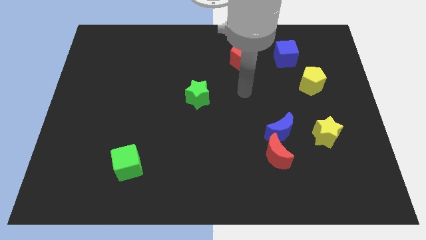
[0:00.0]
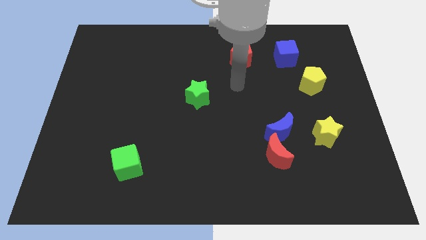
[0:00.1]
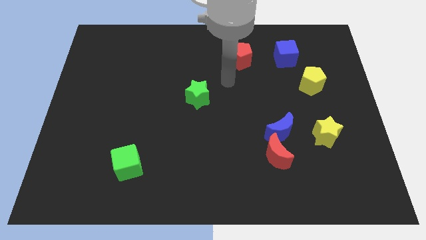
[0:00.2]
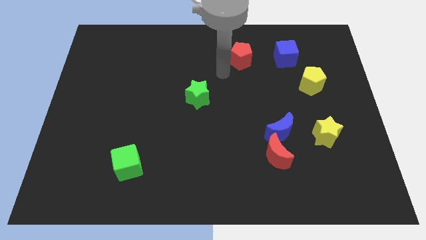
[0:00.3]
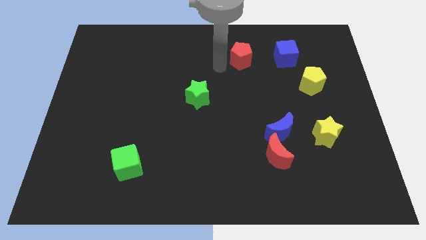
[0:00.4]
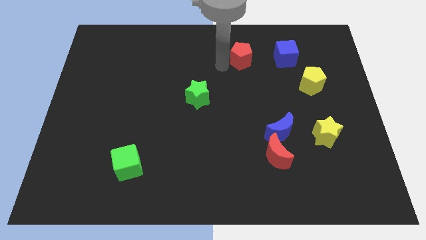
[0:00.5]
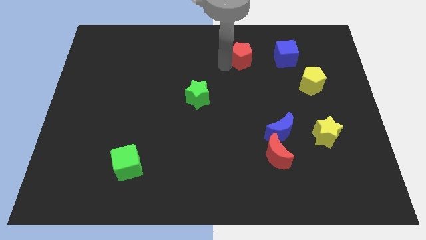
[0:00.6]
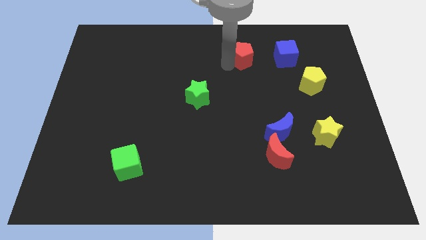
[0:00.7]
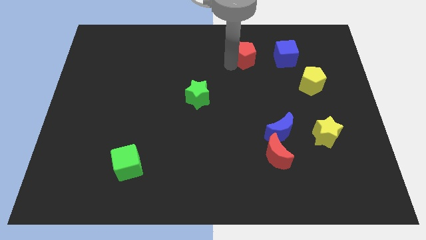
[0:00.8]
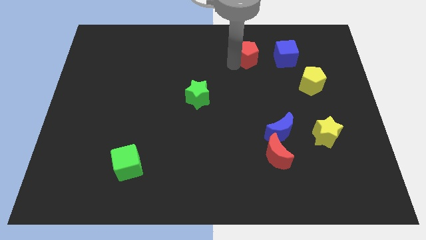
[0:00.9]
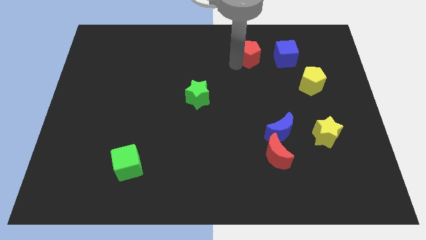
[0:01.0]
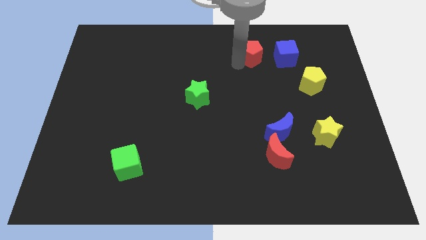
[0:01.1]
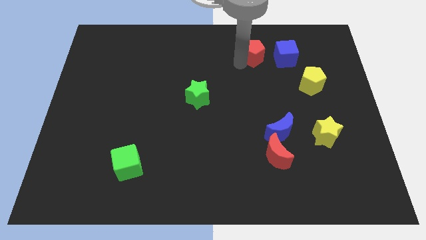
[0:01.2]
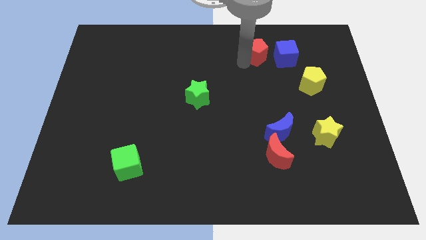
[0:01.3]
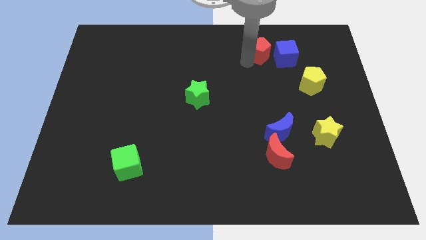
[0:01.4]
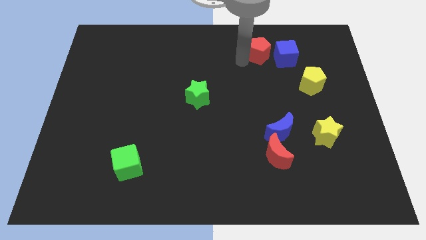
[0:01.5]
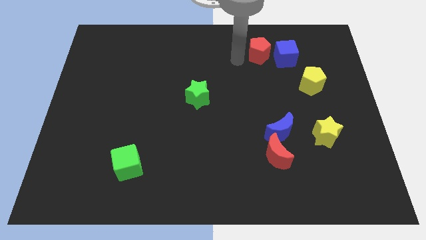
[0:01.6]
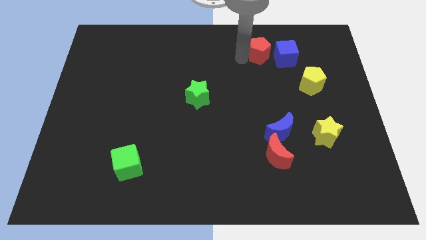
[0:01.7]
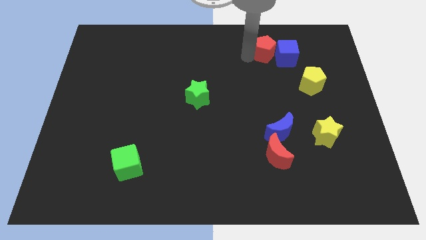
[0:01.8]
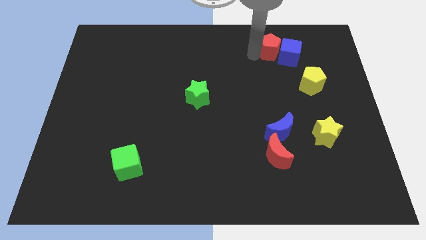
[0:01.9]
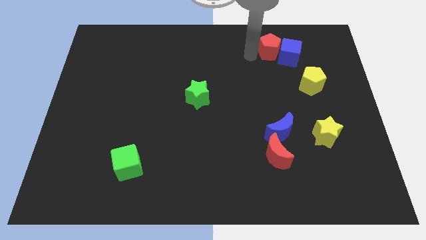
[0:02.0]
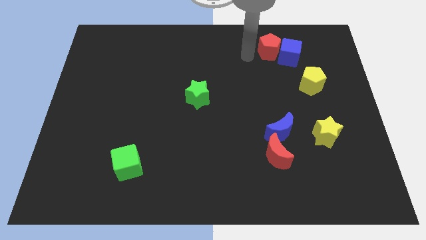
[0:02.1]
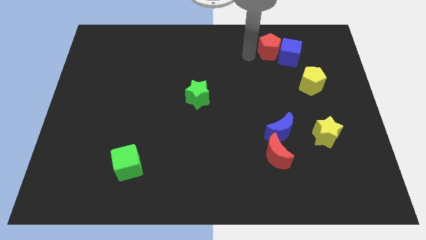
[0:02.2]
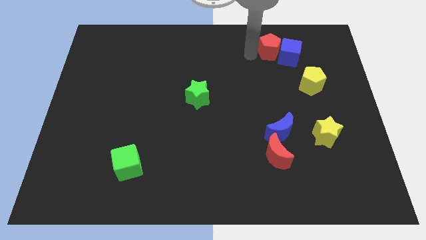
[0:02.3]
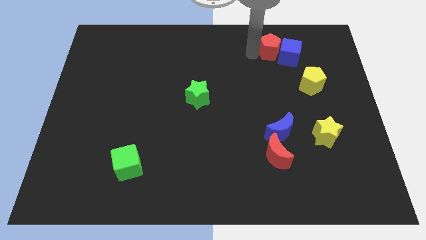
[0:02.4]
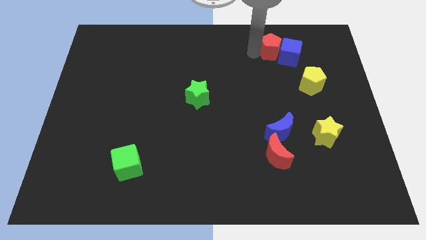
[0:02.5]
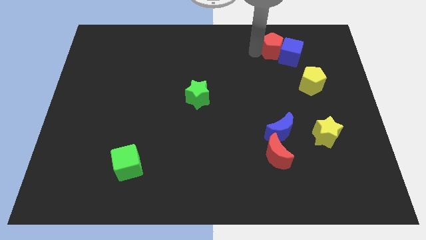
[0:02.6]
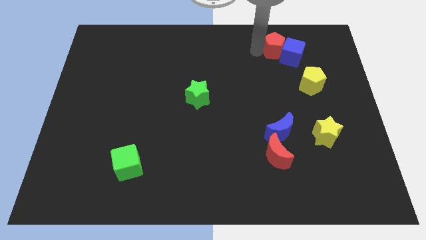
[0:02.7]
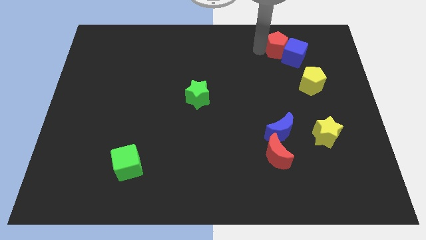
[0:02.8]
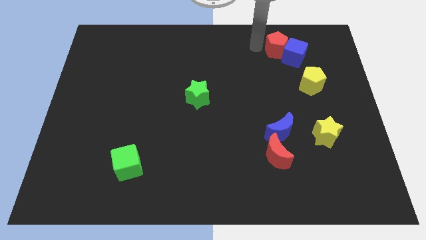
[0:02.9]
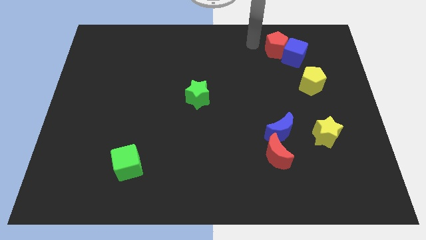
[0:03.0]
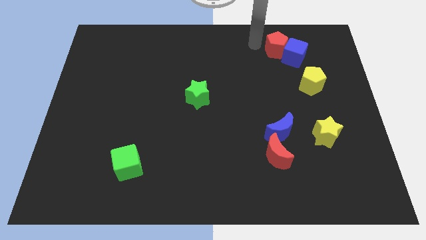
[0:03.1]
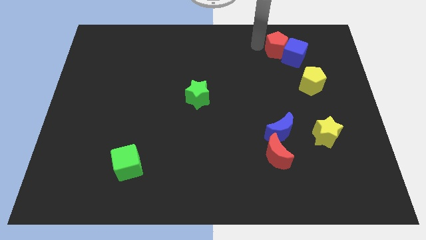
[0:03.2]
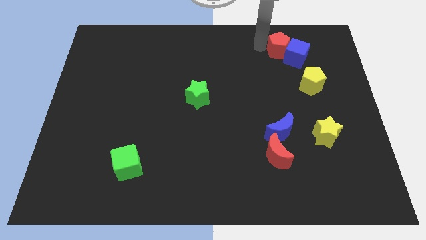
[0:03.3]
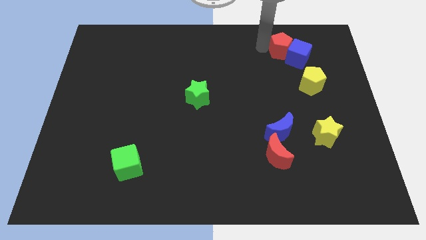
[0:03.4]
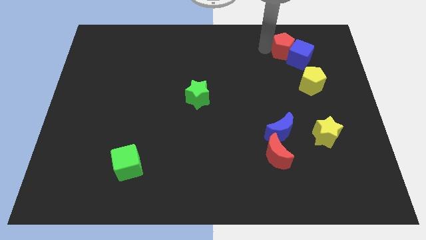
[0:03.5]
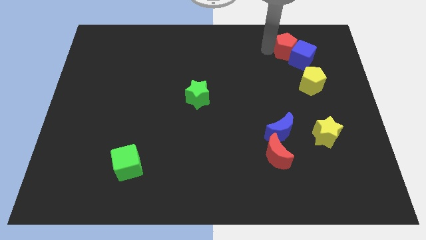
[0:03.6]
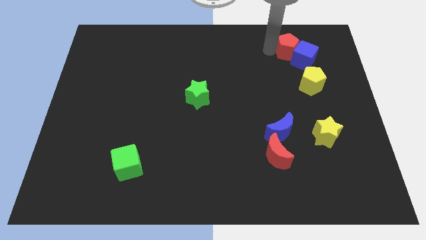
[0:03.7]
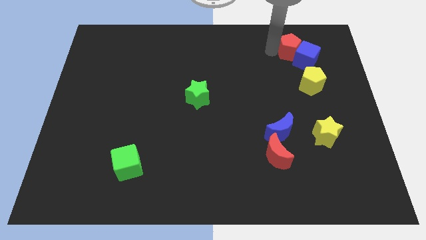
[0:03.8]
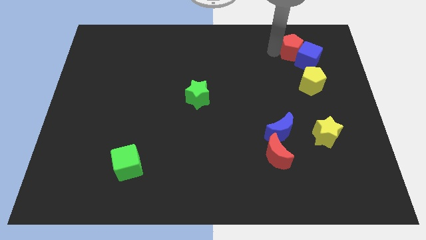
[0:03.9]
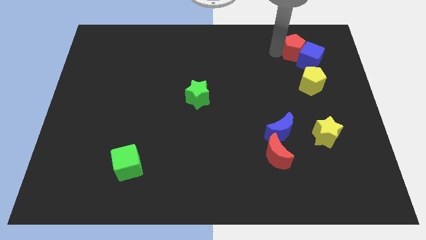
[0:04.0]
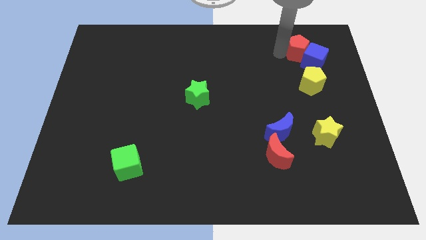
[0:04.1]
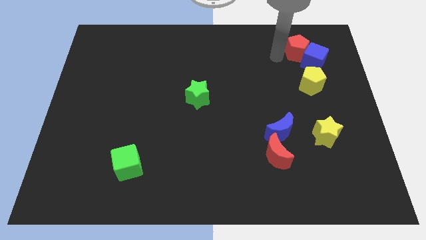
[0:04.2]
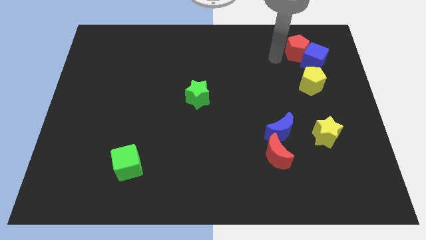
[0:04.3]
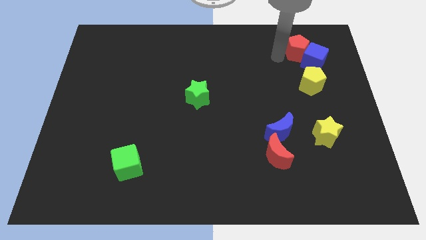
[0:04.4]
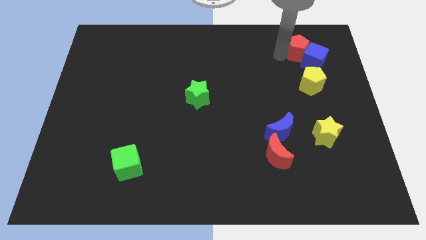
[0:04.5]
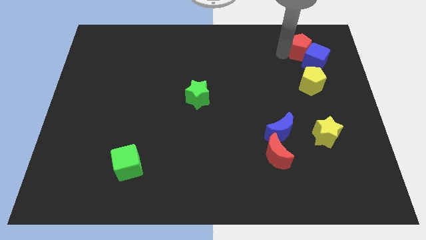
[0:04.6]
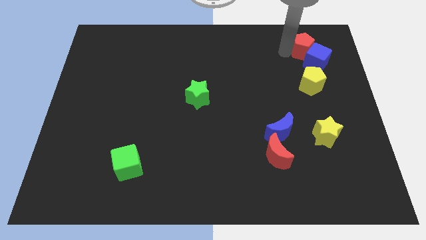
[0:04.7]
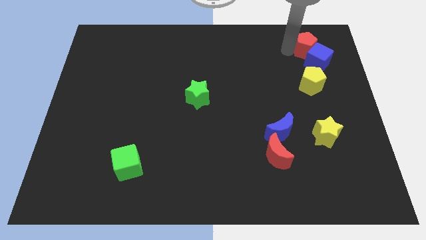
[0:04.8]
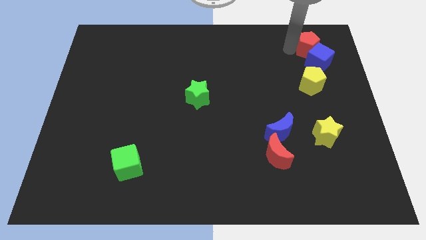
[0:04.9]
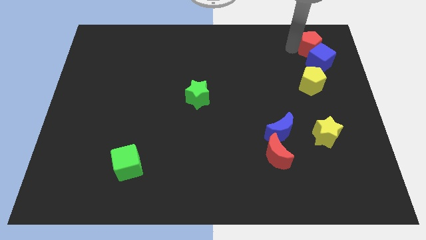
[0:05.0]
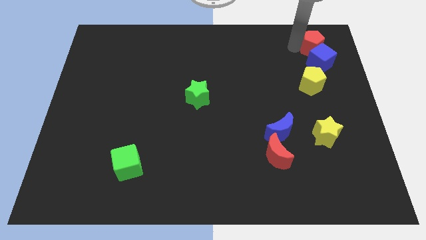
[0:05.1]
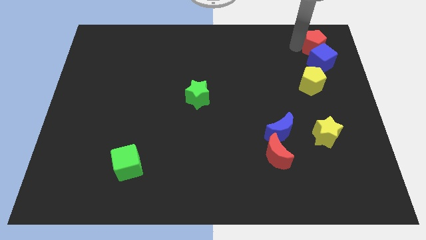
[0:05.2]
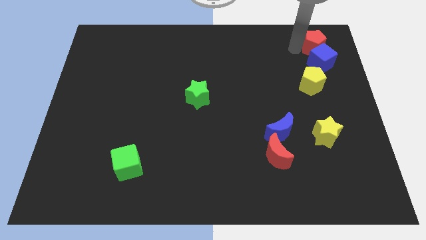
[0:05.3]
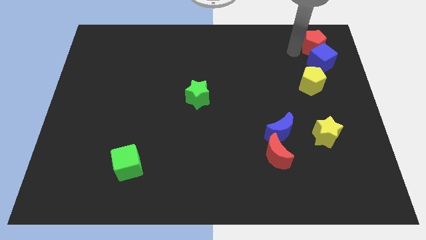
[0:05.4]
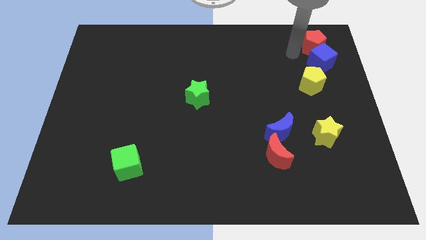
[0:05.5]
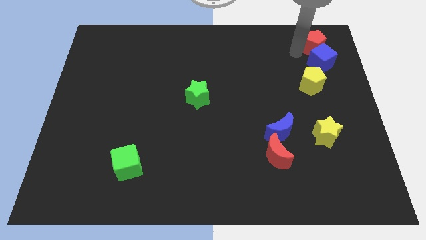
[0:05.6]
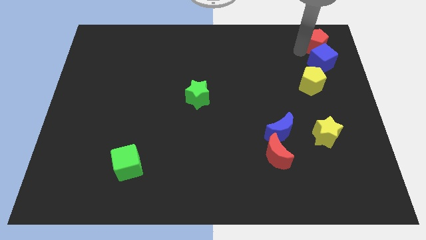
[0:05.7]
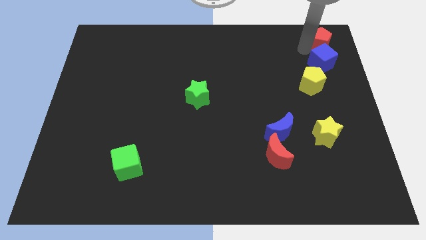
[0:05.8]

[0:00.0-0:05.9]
push the red pentagon to the upper right corner

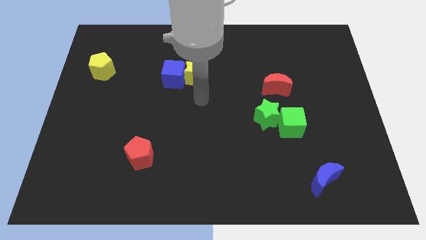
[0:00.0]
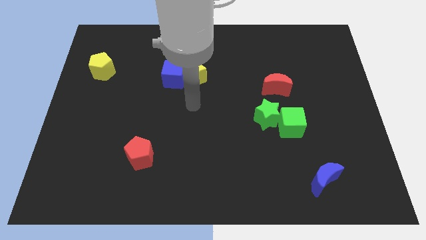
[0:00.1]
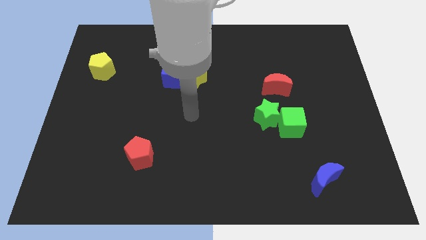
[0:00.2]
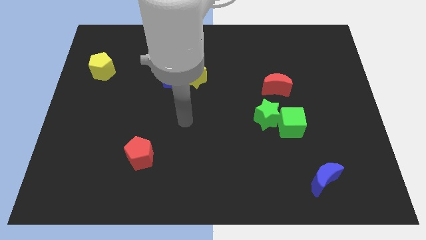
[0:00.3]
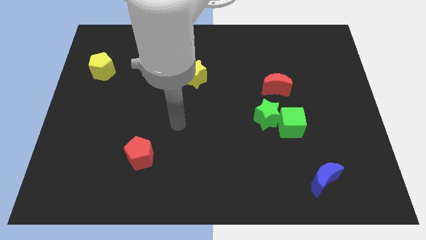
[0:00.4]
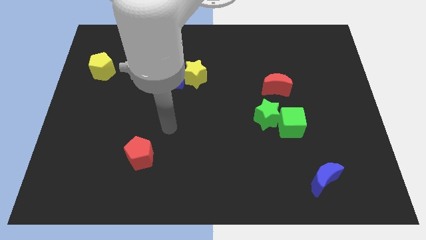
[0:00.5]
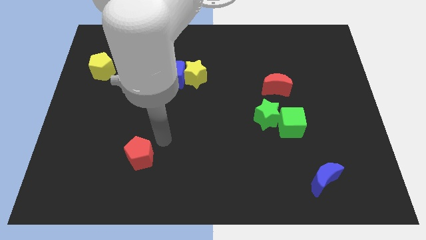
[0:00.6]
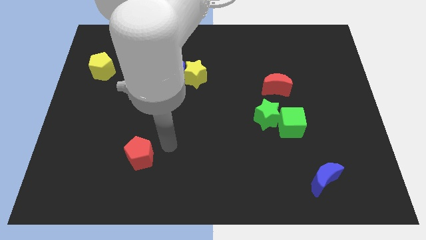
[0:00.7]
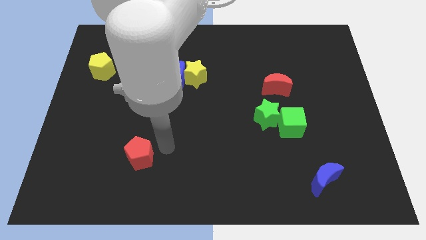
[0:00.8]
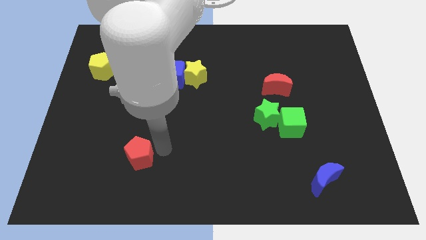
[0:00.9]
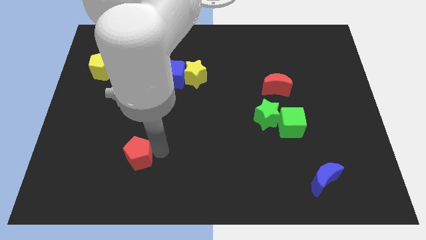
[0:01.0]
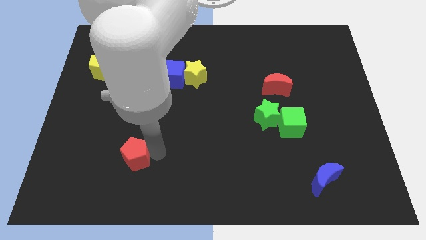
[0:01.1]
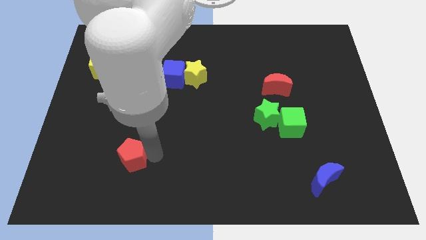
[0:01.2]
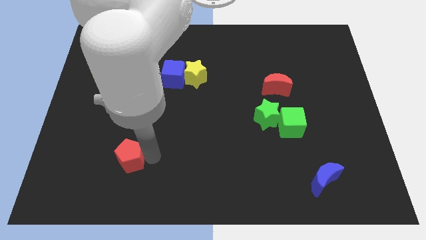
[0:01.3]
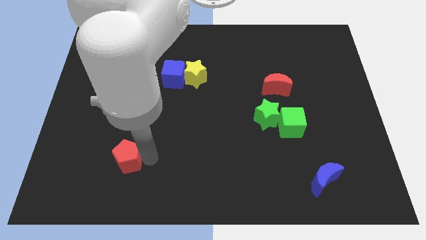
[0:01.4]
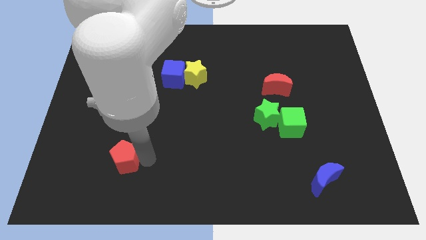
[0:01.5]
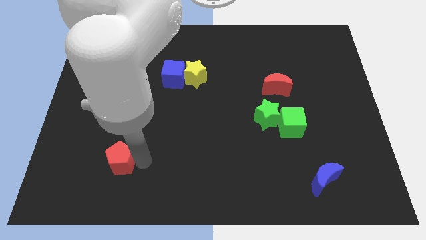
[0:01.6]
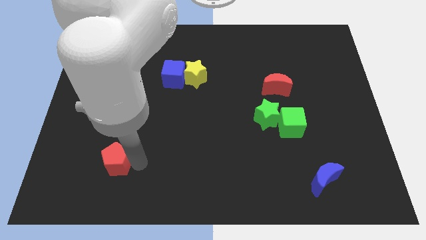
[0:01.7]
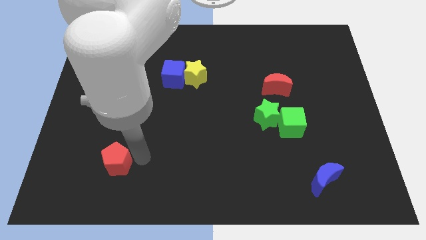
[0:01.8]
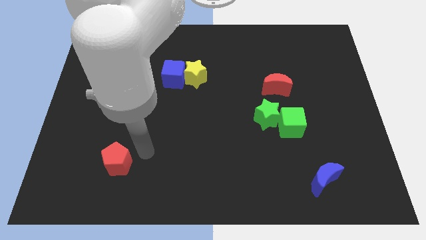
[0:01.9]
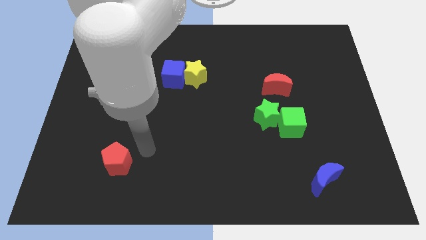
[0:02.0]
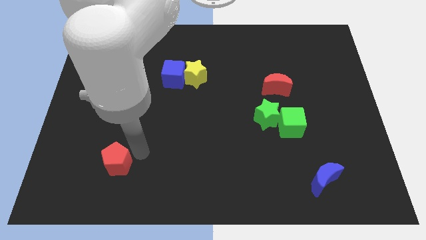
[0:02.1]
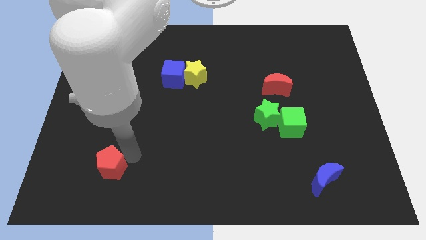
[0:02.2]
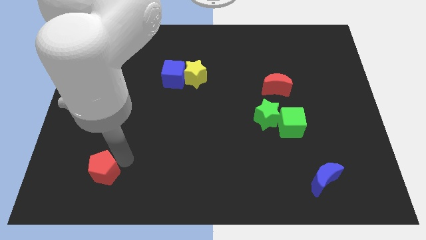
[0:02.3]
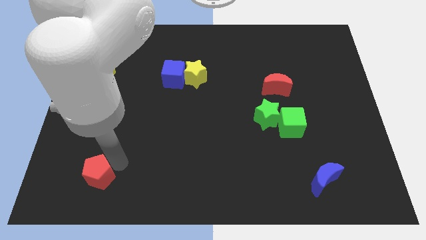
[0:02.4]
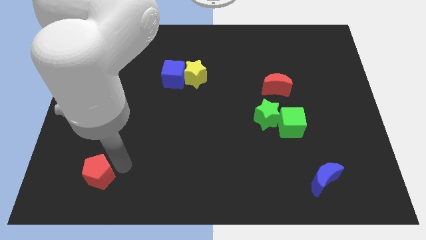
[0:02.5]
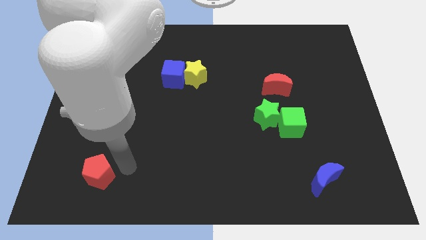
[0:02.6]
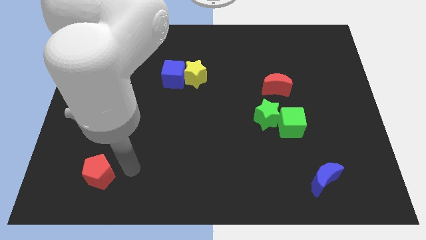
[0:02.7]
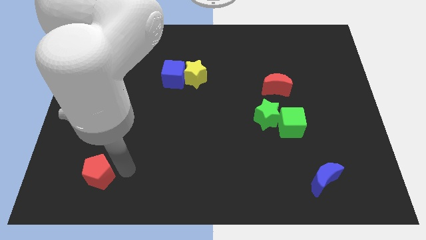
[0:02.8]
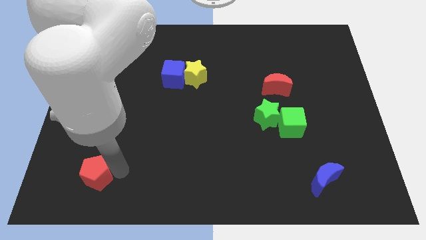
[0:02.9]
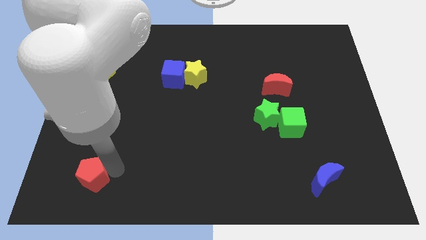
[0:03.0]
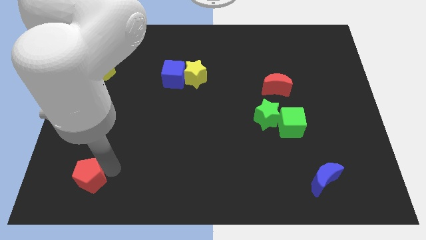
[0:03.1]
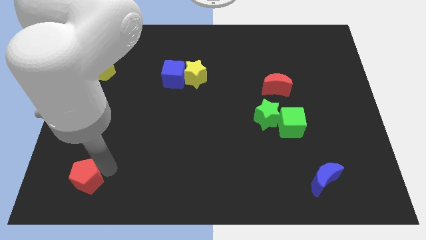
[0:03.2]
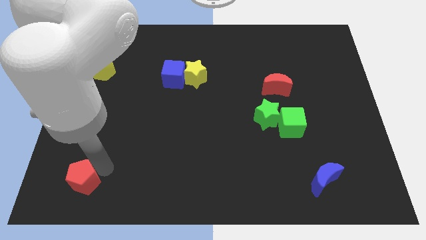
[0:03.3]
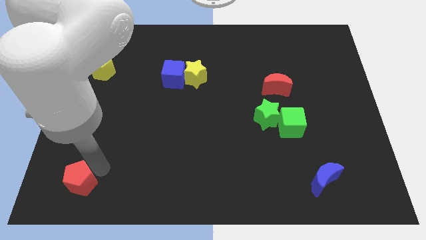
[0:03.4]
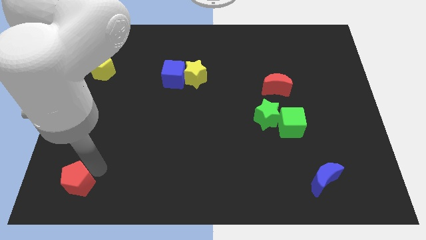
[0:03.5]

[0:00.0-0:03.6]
push the red pentagon to the bottom left of the board
